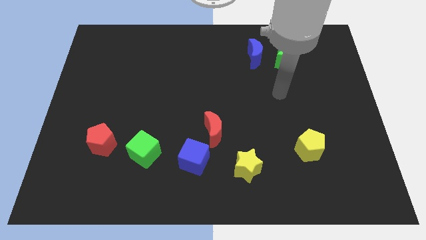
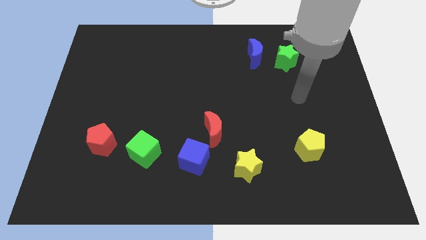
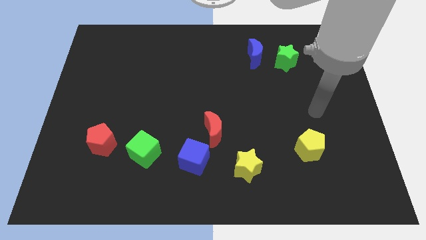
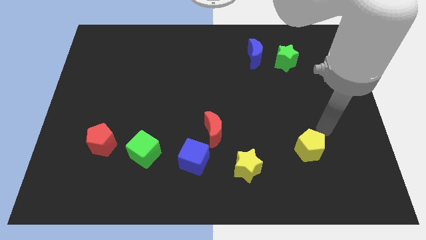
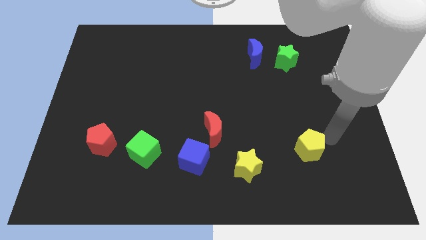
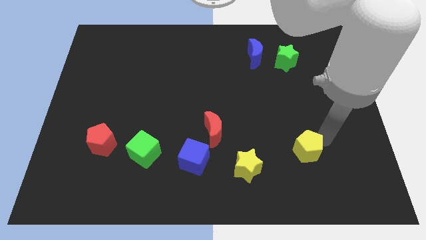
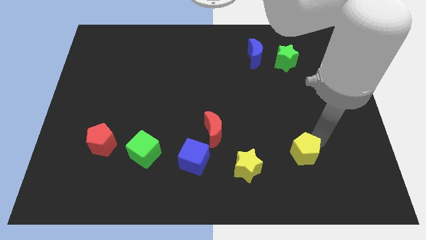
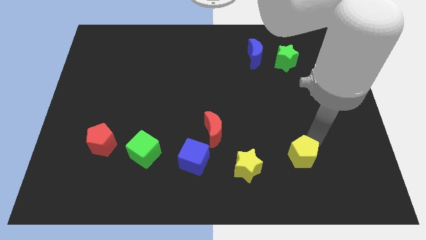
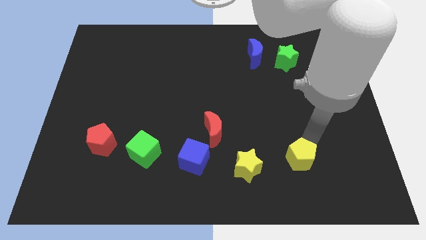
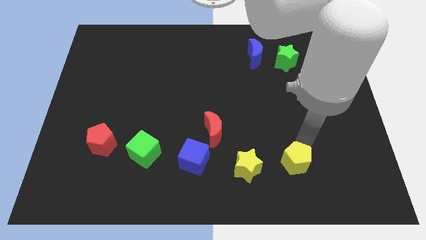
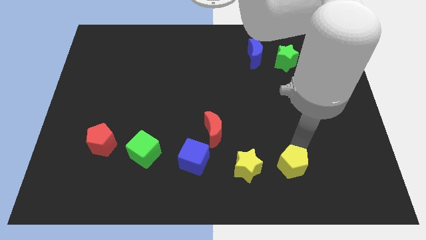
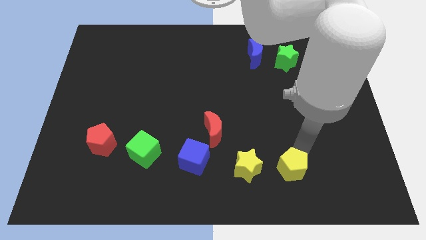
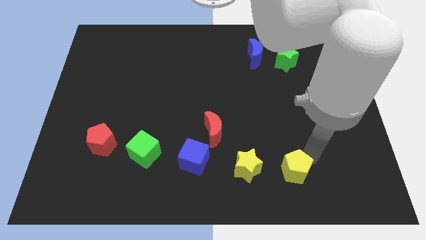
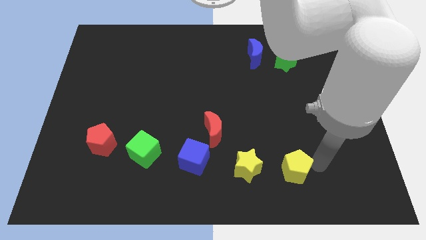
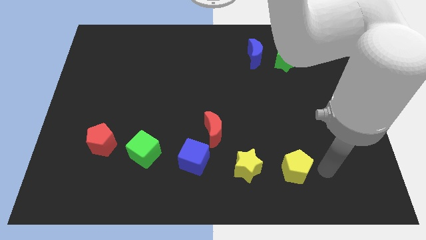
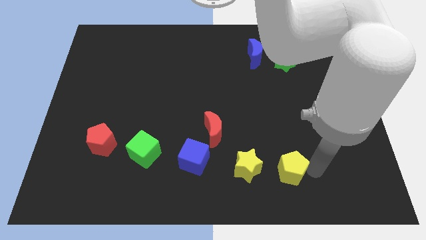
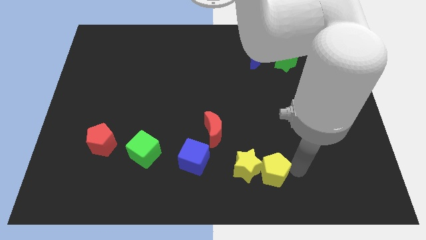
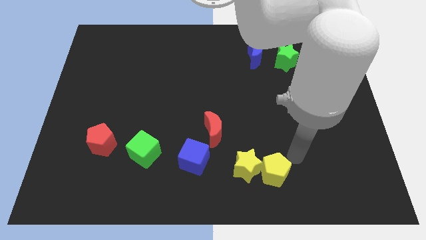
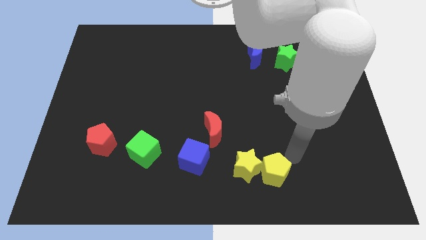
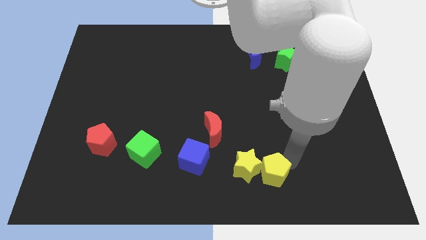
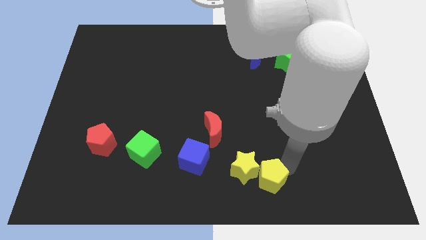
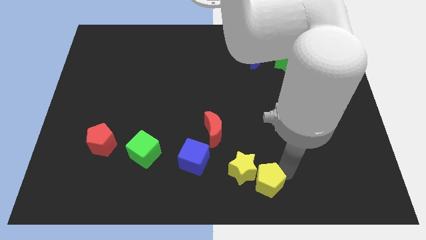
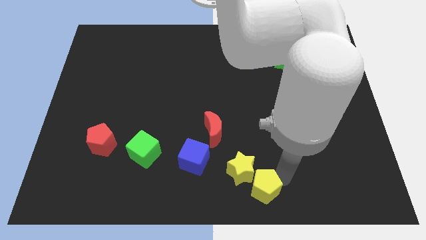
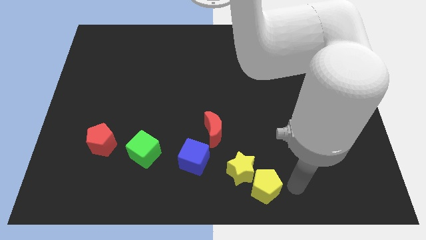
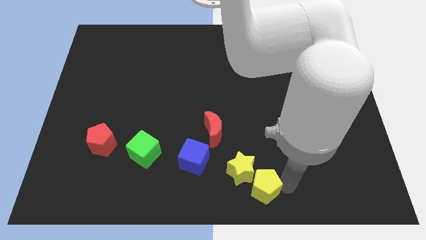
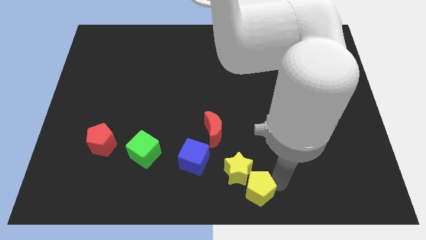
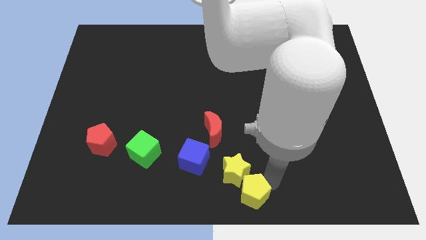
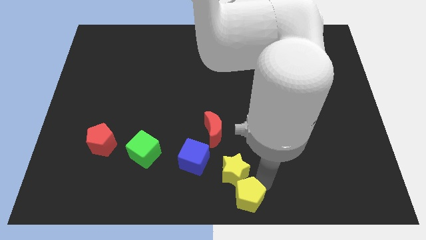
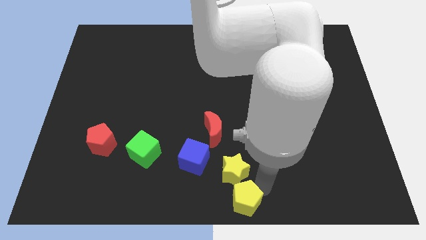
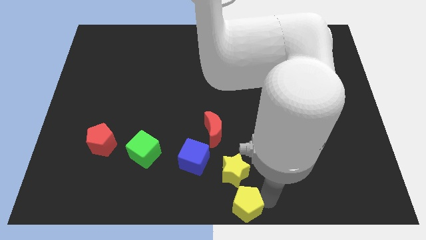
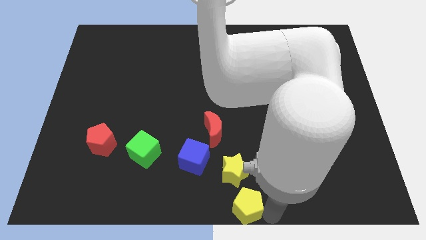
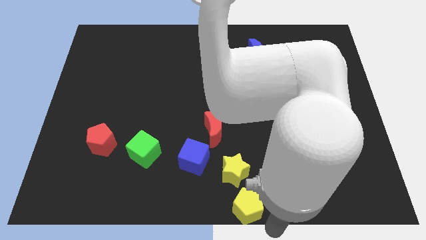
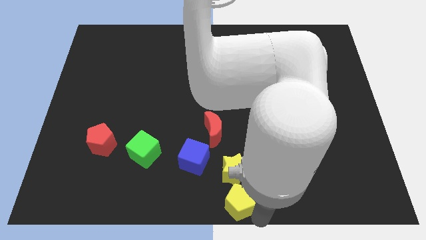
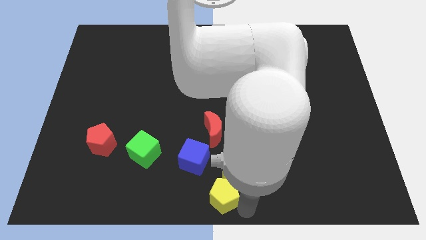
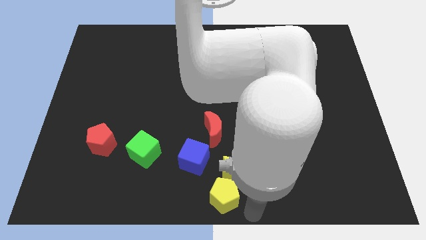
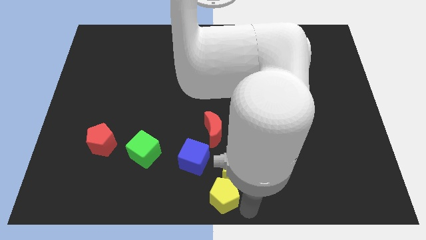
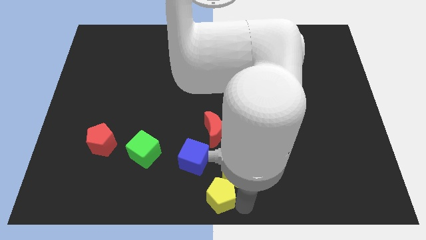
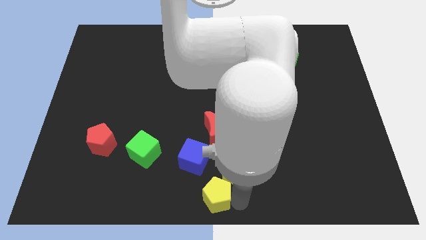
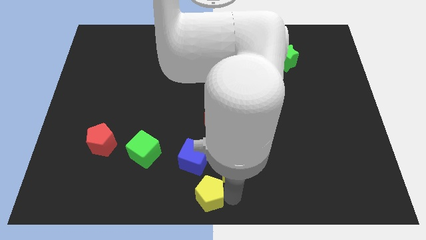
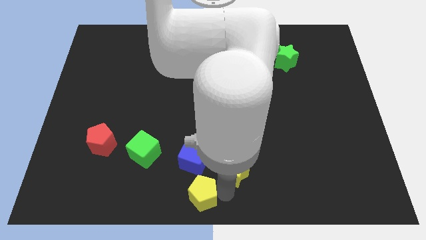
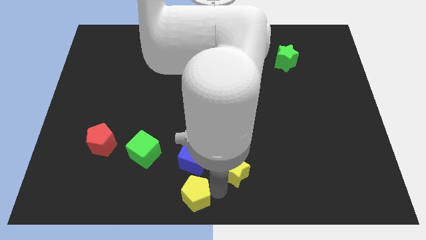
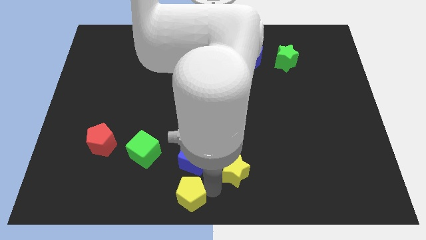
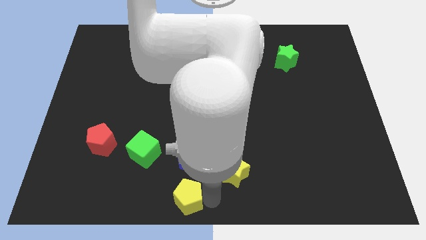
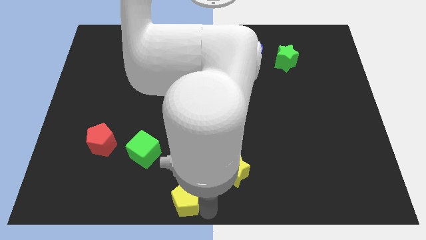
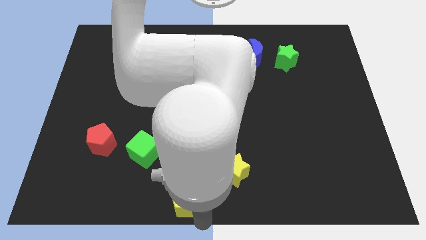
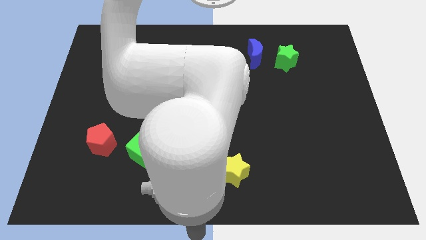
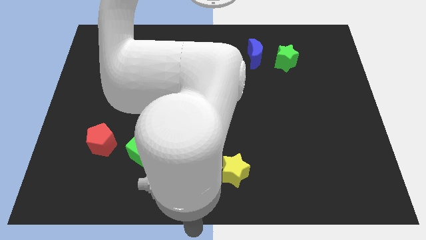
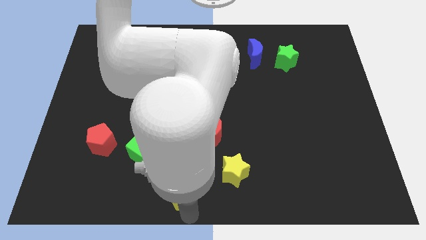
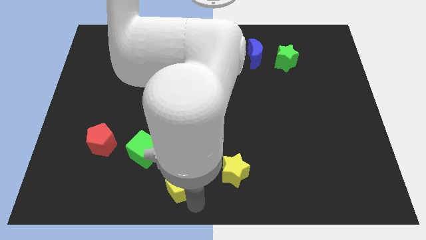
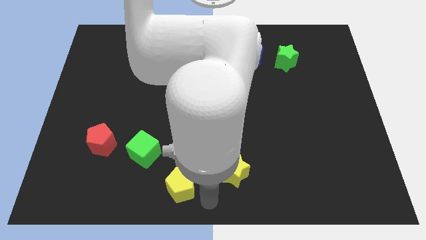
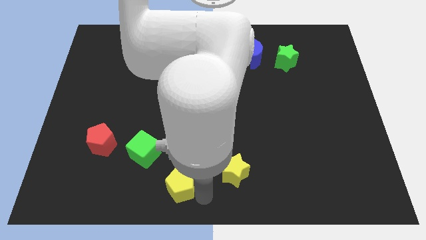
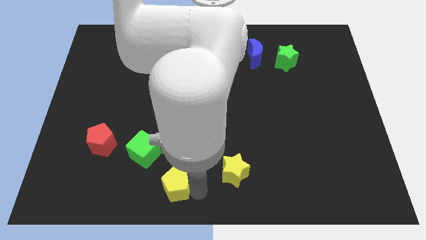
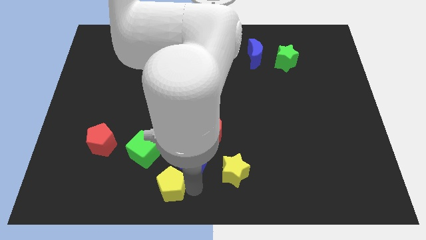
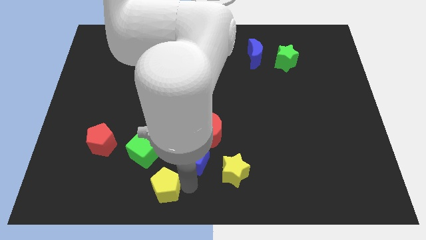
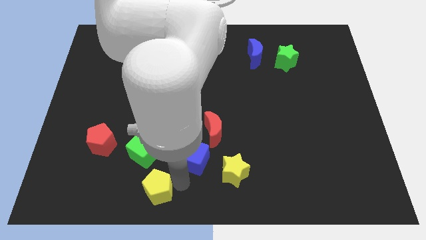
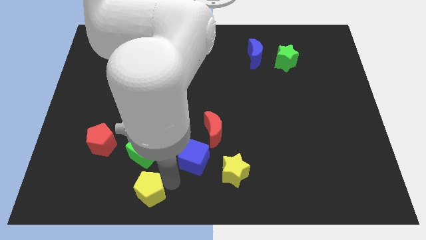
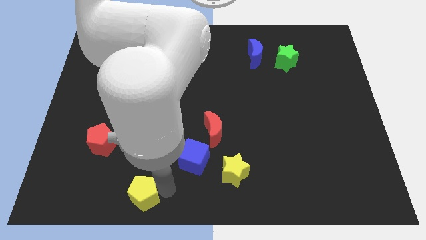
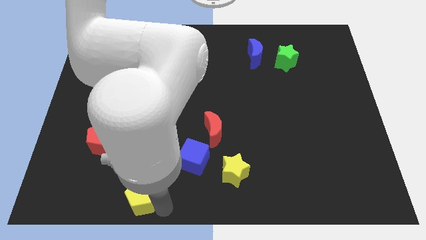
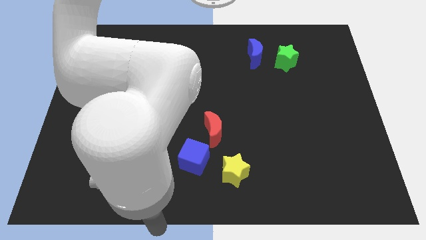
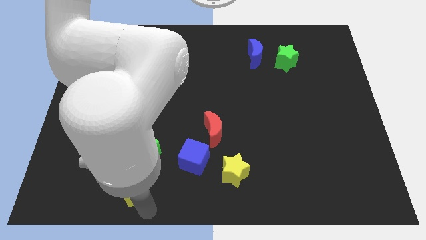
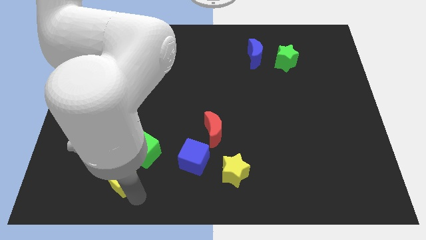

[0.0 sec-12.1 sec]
push the yellow pentagon diagonally down and to the right of the red pentagon

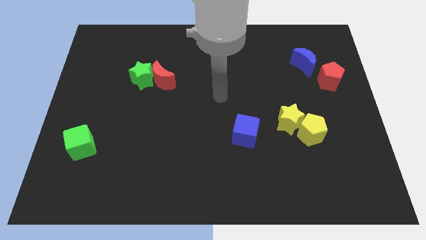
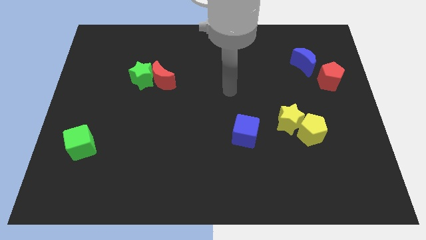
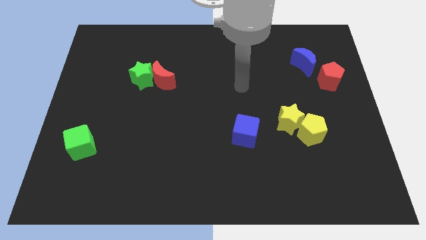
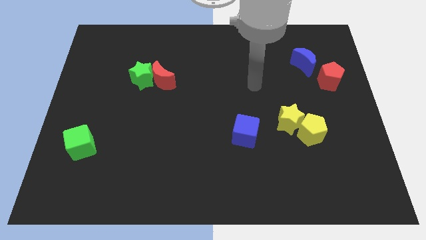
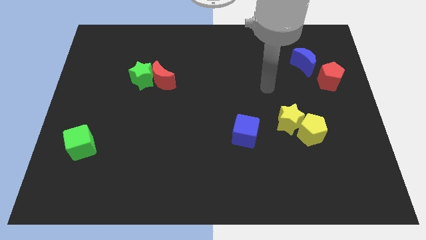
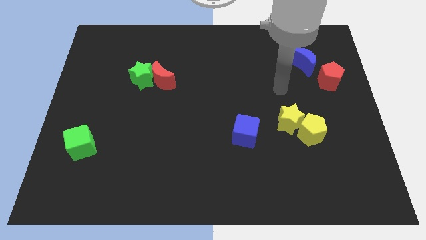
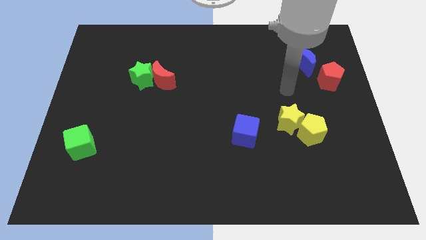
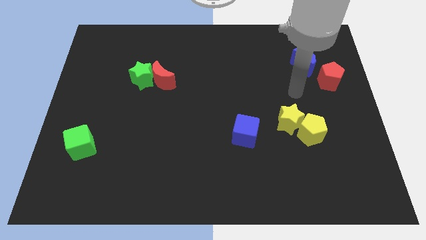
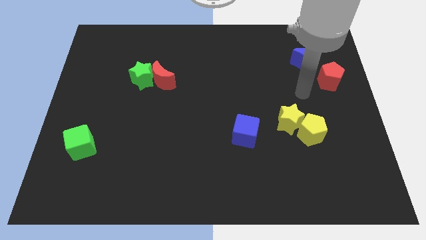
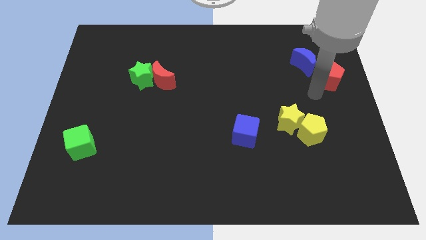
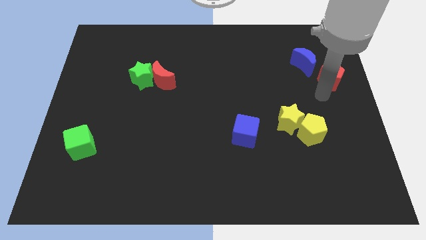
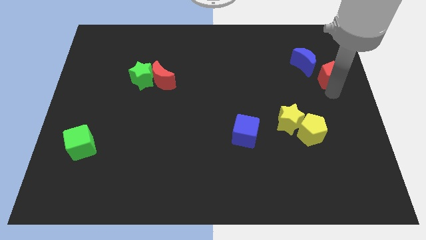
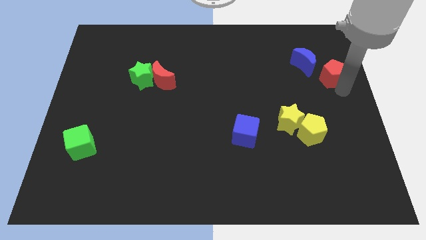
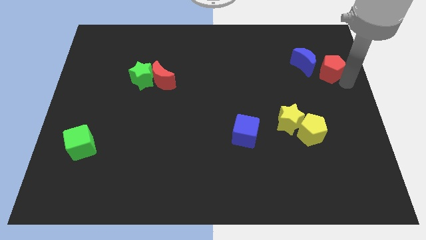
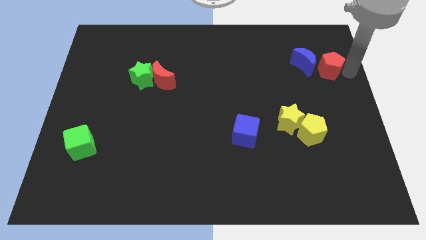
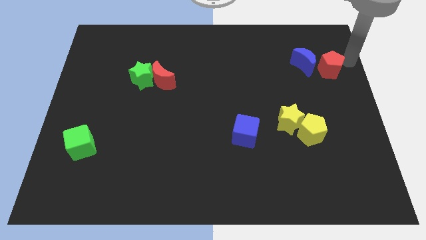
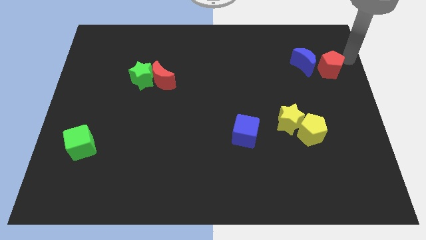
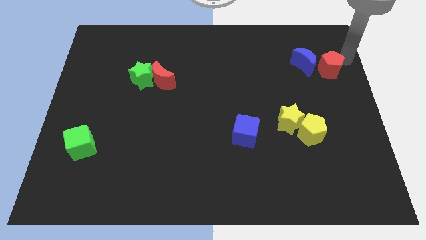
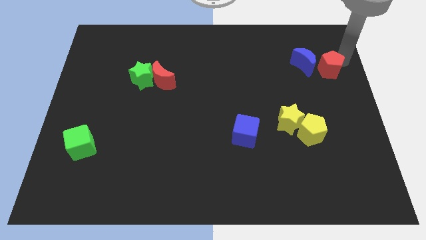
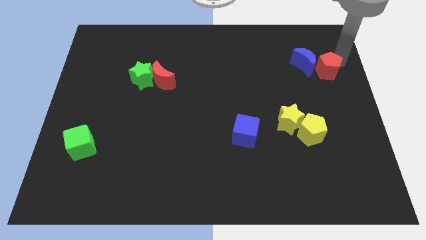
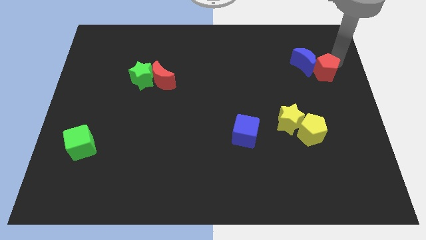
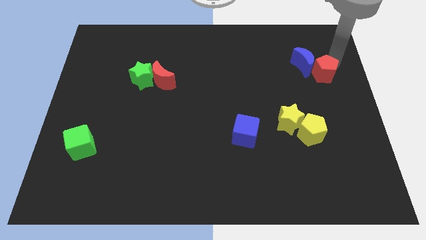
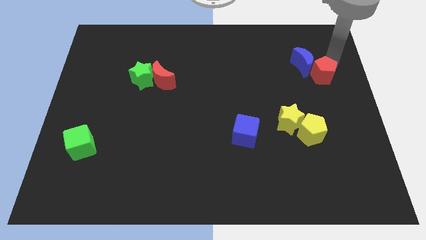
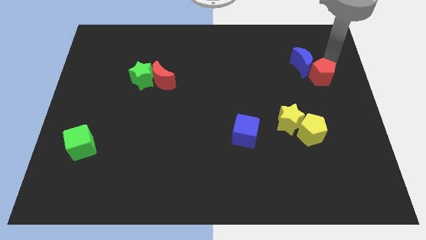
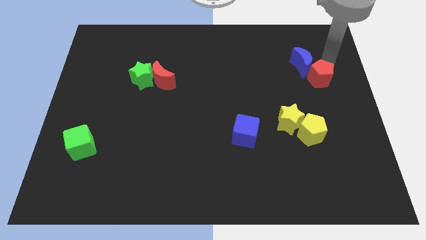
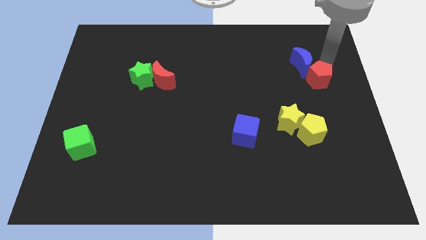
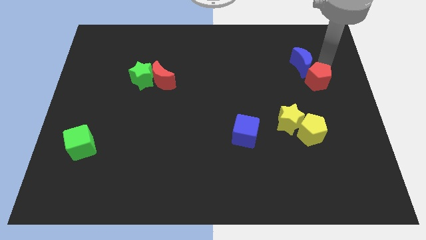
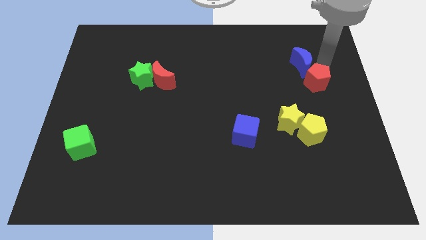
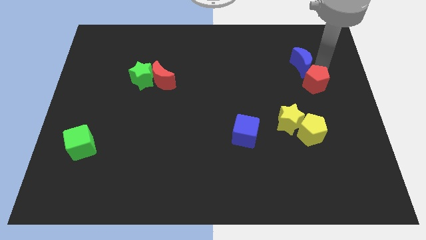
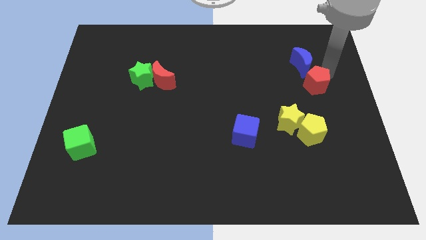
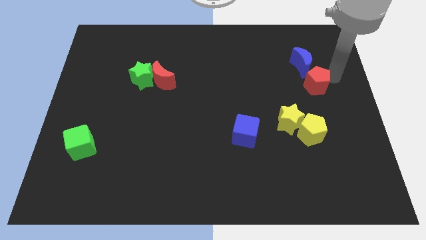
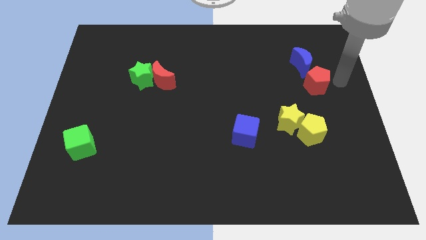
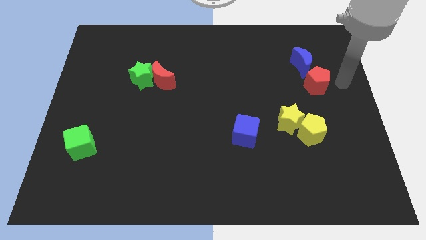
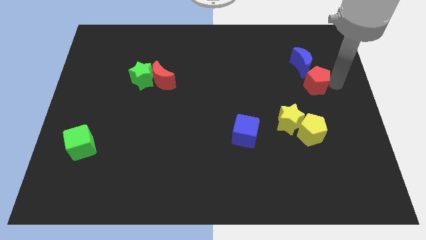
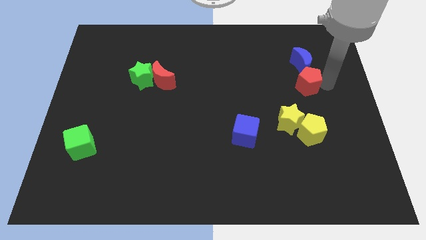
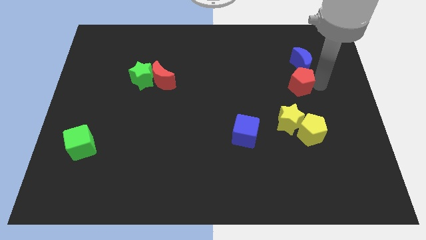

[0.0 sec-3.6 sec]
move the red pentagon to the top side of the yellow star
